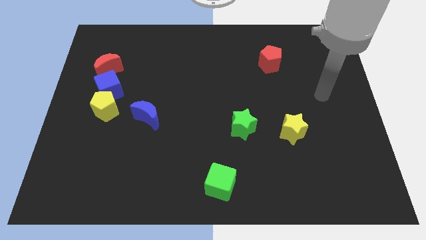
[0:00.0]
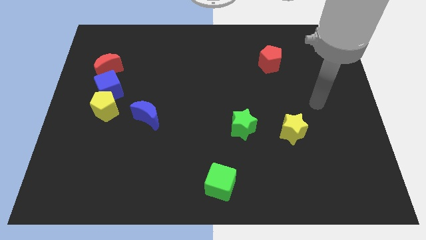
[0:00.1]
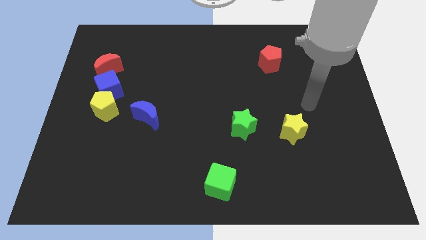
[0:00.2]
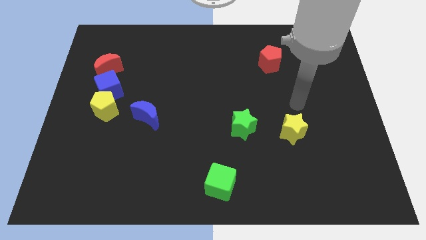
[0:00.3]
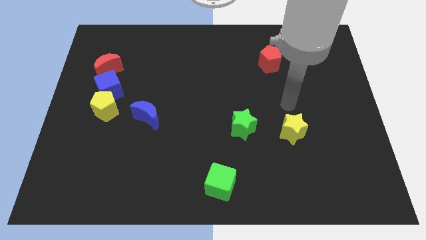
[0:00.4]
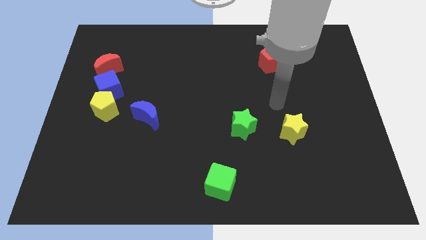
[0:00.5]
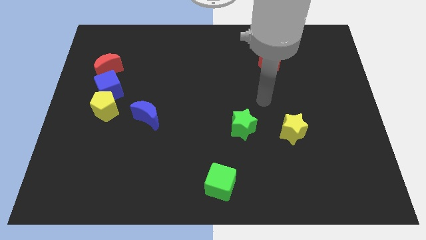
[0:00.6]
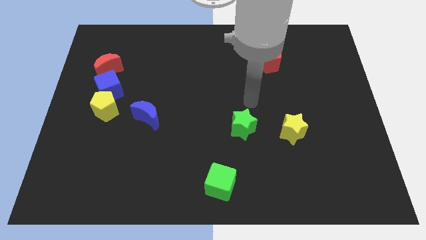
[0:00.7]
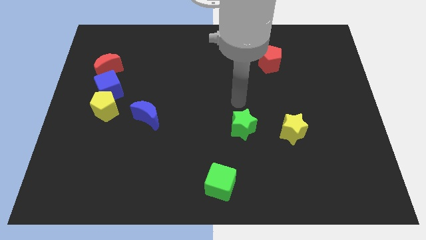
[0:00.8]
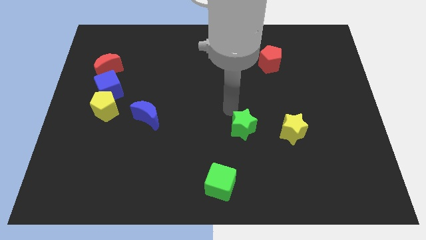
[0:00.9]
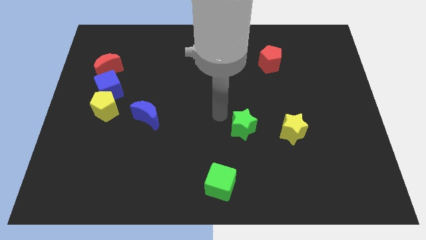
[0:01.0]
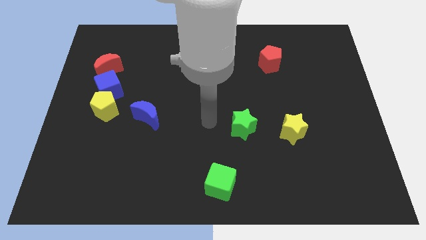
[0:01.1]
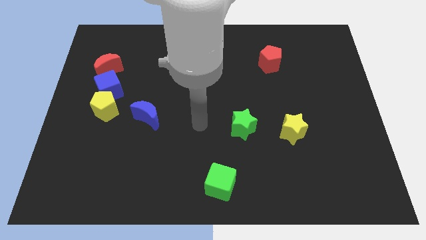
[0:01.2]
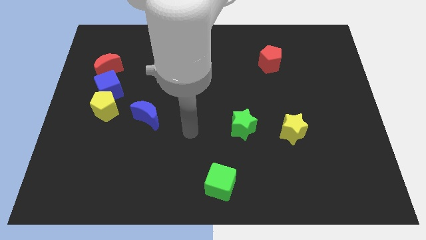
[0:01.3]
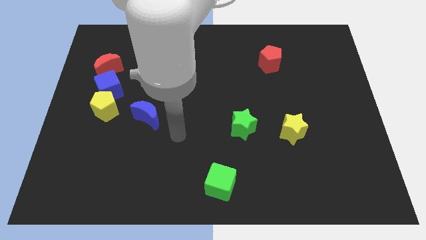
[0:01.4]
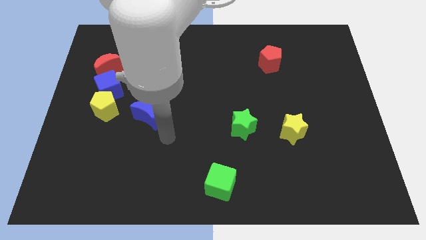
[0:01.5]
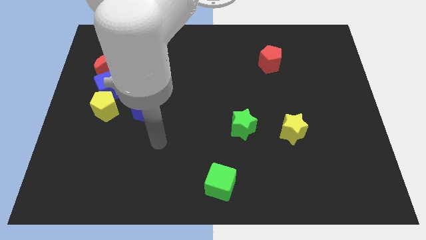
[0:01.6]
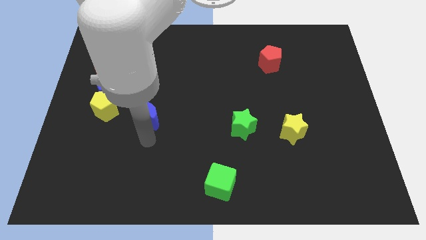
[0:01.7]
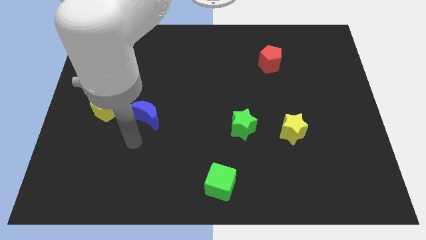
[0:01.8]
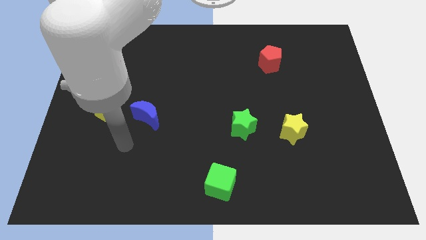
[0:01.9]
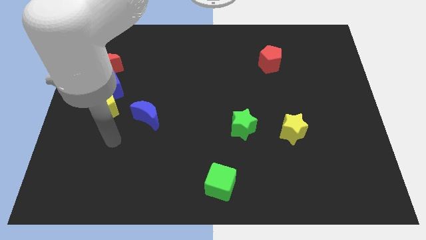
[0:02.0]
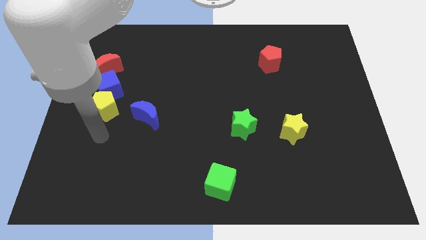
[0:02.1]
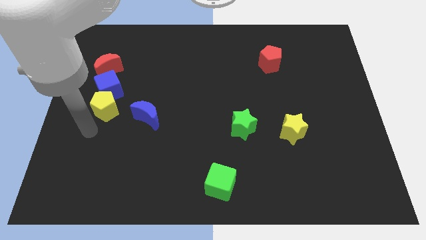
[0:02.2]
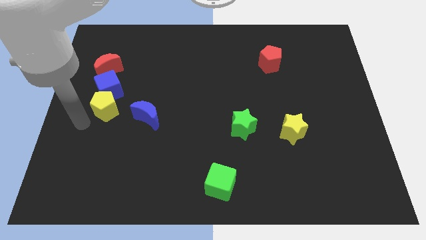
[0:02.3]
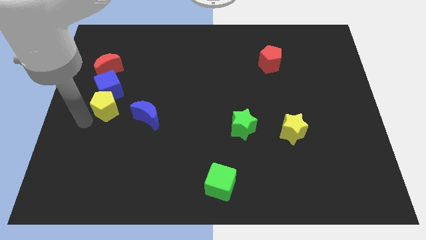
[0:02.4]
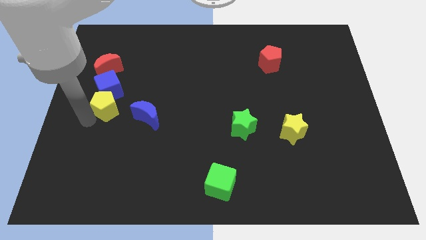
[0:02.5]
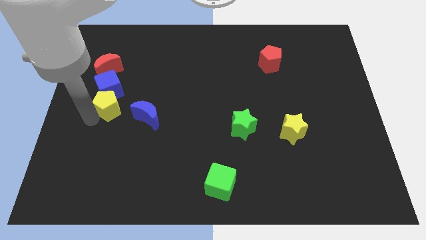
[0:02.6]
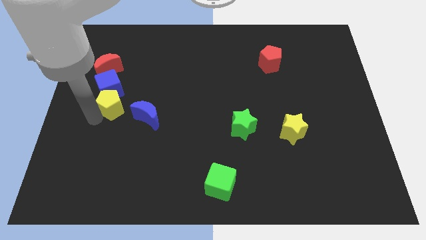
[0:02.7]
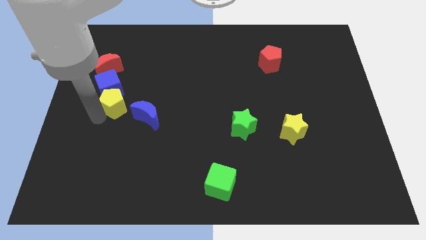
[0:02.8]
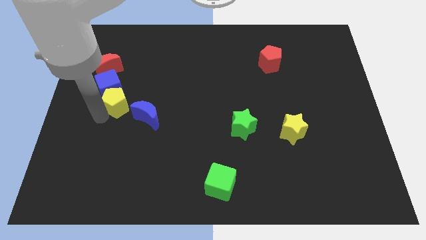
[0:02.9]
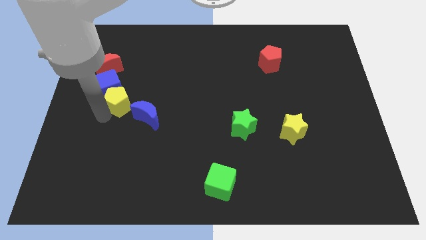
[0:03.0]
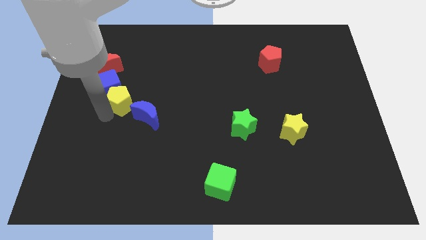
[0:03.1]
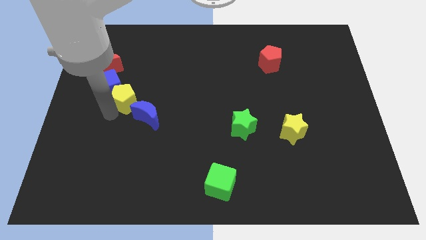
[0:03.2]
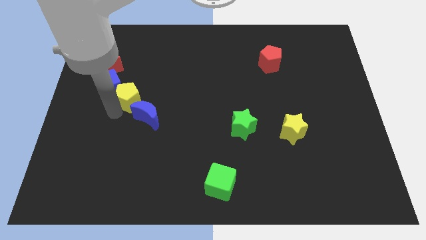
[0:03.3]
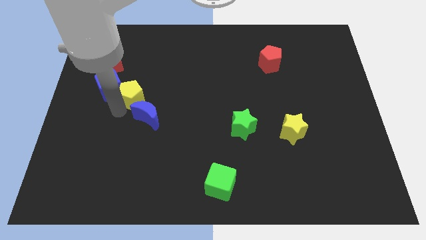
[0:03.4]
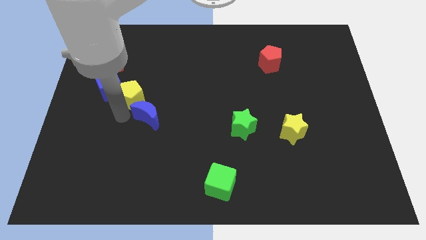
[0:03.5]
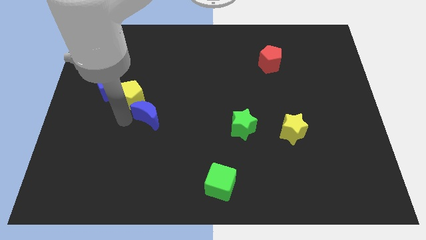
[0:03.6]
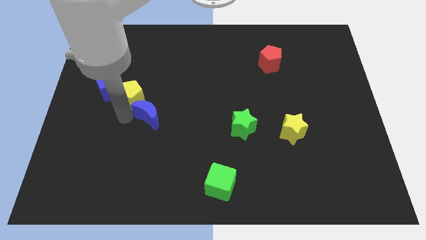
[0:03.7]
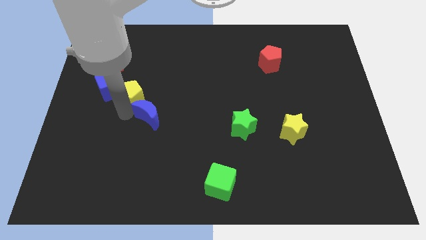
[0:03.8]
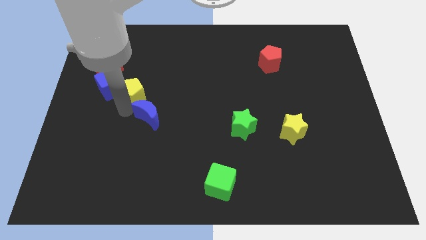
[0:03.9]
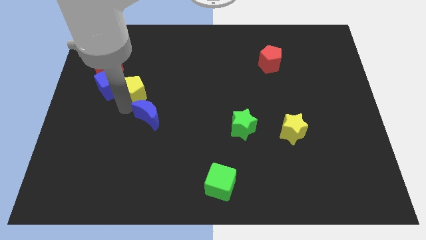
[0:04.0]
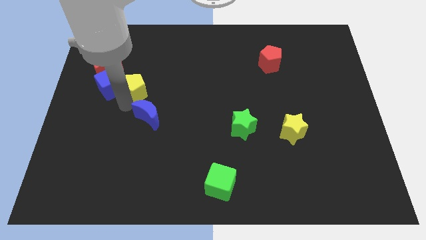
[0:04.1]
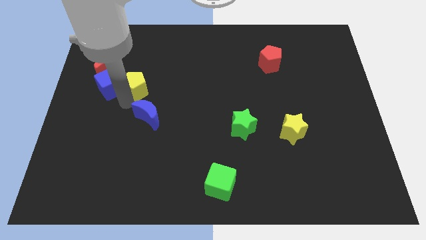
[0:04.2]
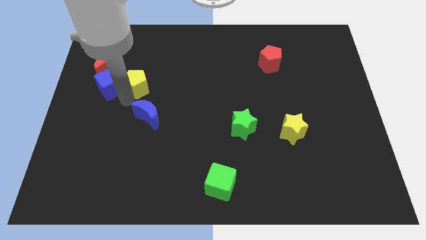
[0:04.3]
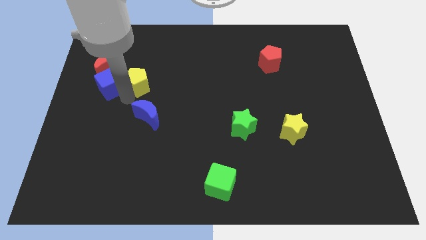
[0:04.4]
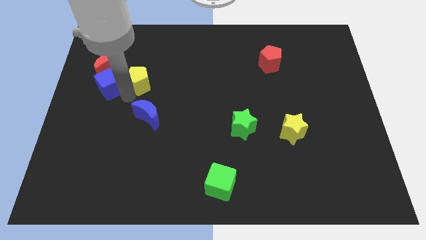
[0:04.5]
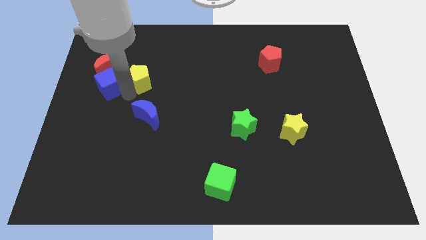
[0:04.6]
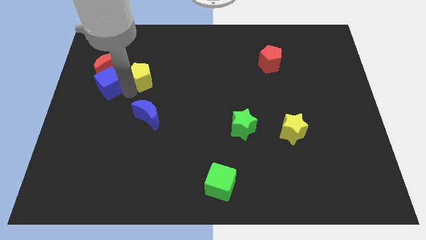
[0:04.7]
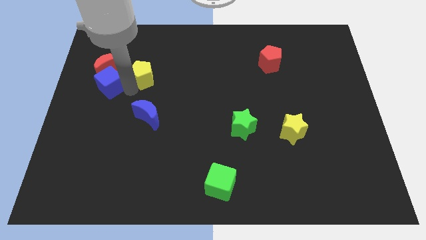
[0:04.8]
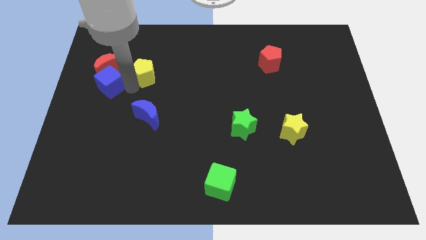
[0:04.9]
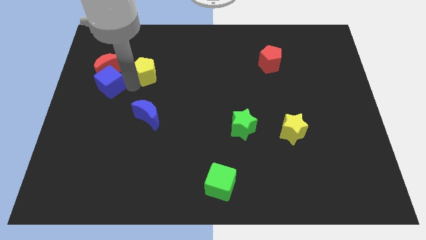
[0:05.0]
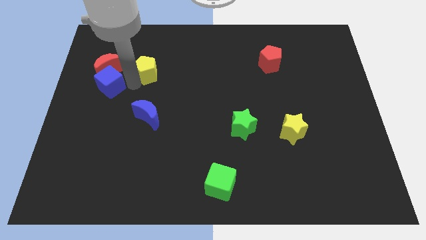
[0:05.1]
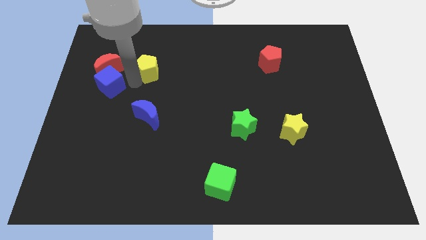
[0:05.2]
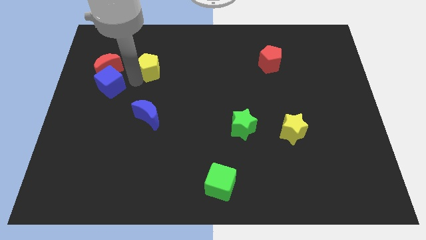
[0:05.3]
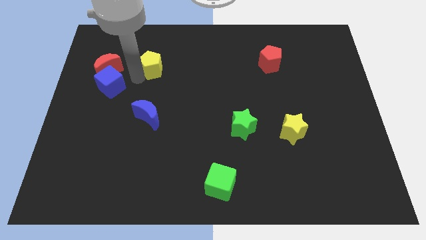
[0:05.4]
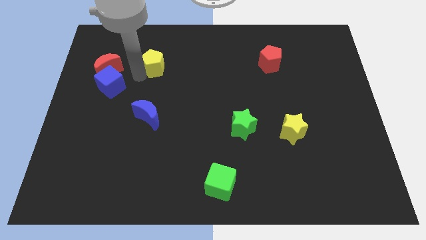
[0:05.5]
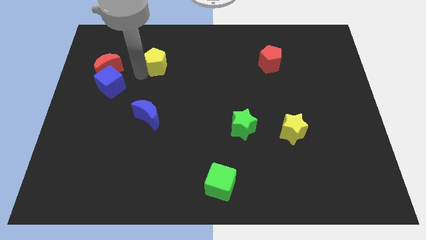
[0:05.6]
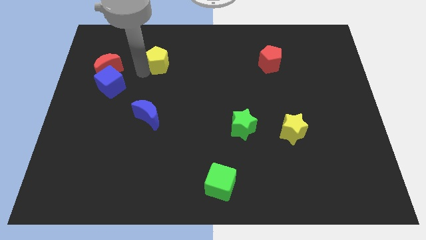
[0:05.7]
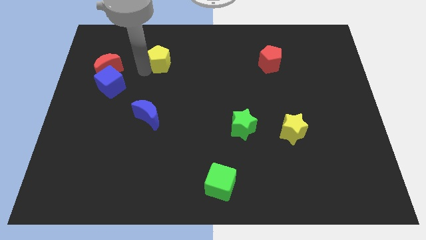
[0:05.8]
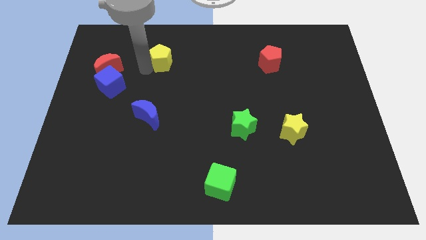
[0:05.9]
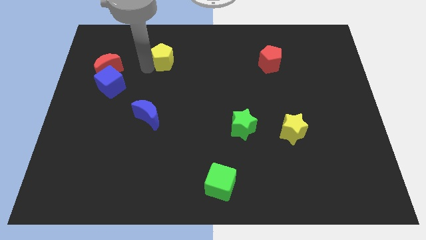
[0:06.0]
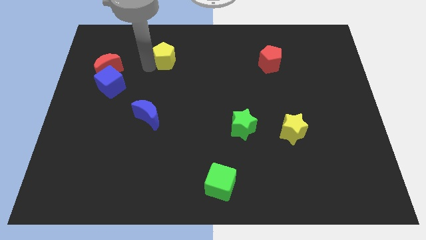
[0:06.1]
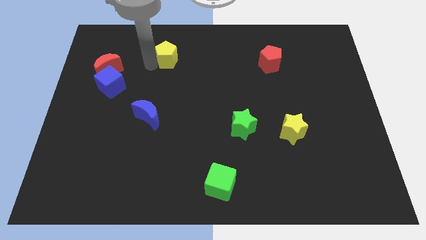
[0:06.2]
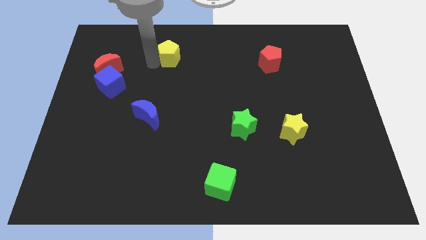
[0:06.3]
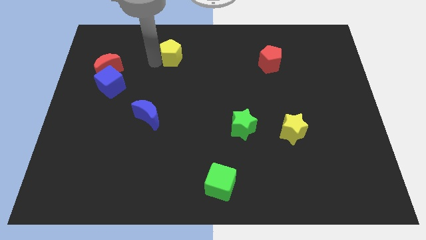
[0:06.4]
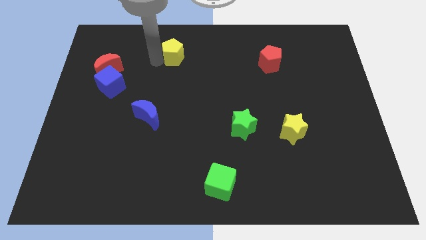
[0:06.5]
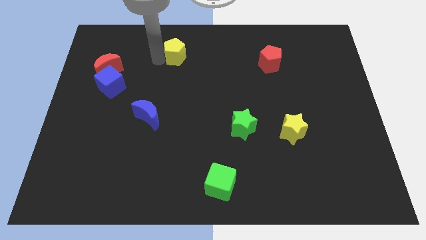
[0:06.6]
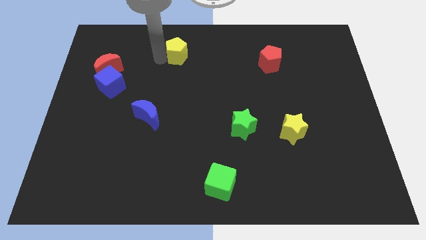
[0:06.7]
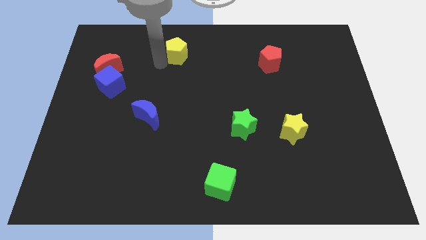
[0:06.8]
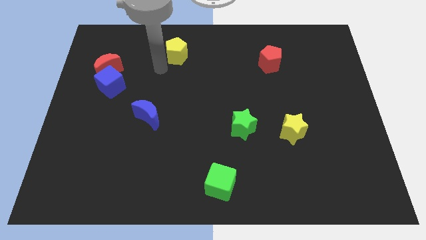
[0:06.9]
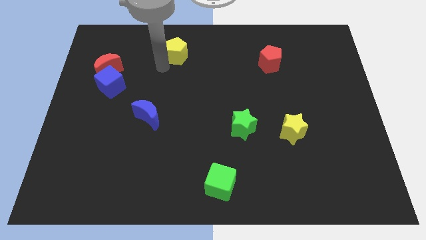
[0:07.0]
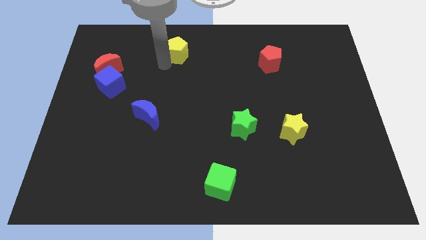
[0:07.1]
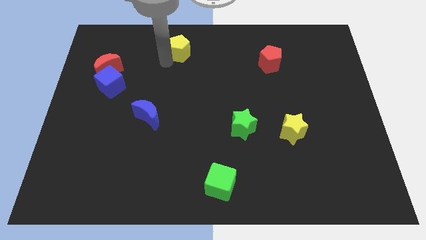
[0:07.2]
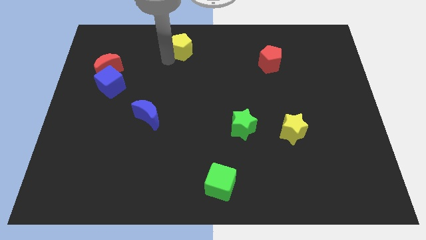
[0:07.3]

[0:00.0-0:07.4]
put the yellow pentagon to the top side
